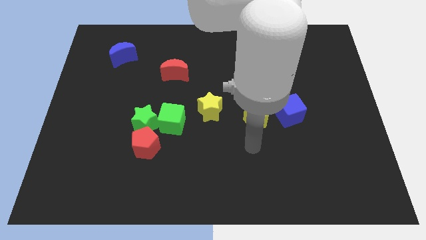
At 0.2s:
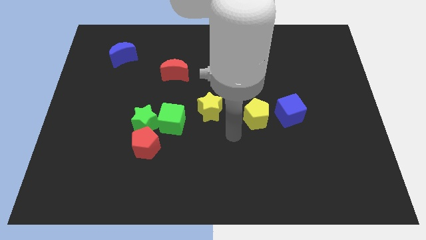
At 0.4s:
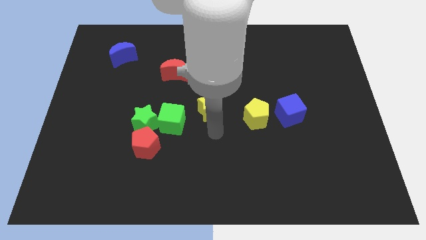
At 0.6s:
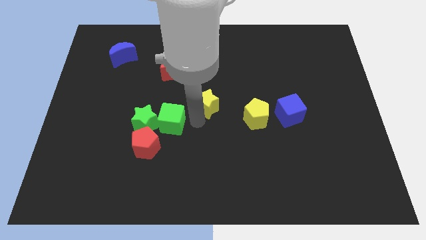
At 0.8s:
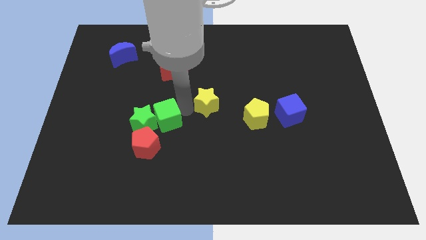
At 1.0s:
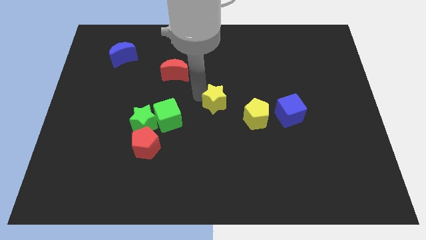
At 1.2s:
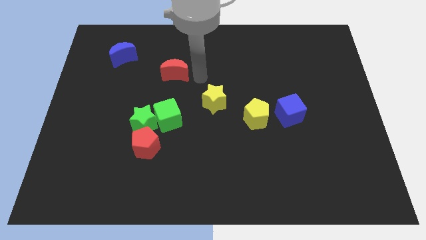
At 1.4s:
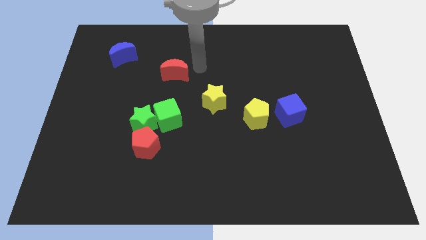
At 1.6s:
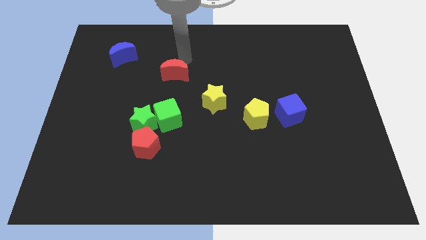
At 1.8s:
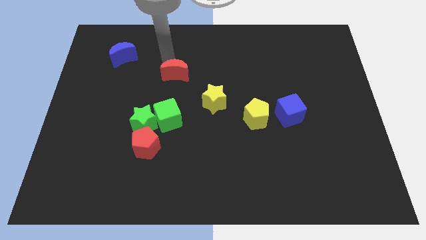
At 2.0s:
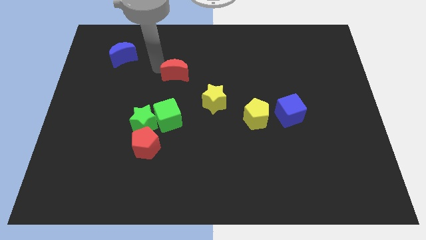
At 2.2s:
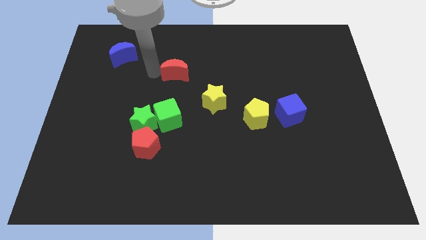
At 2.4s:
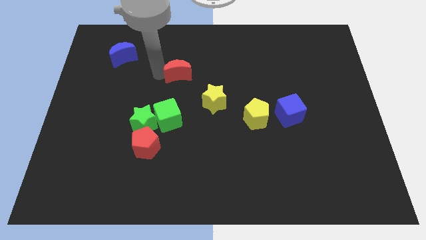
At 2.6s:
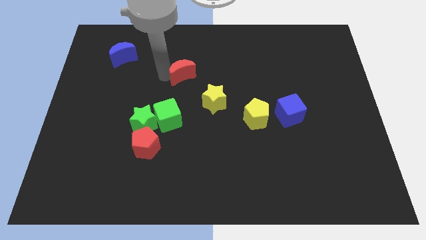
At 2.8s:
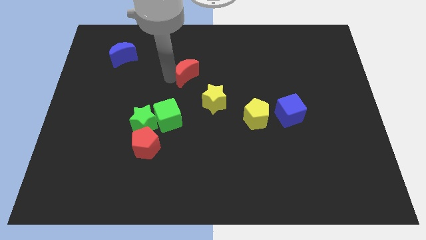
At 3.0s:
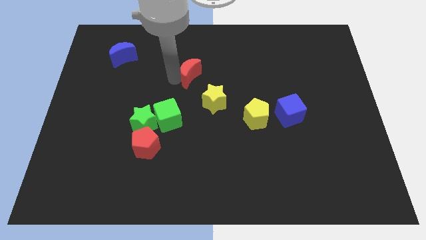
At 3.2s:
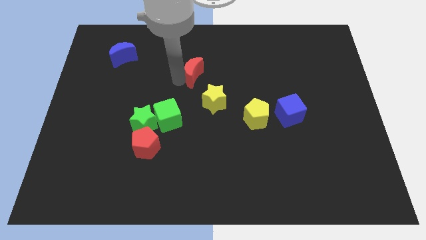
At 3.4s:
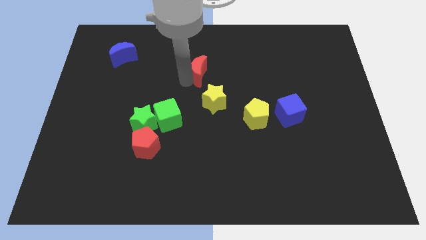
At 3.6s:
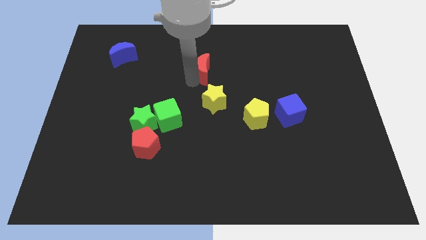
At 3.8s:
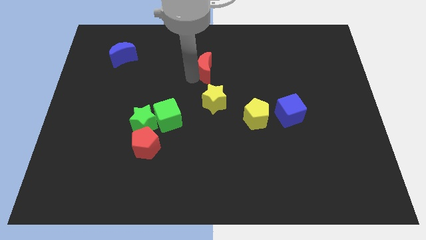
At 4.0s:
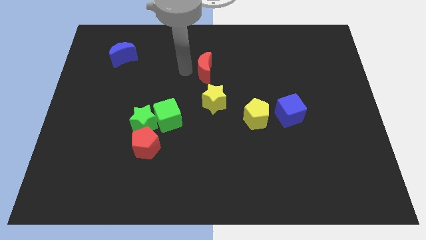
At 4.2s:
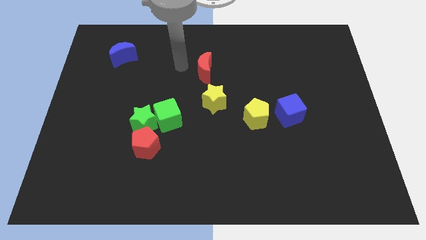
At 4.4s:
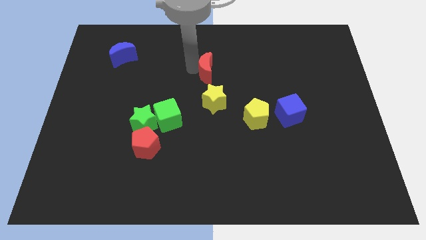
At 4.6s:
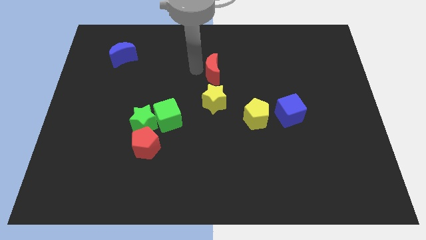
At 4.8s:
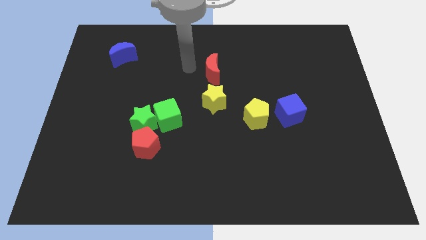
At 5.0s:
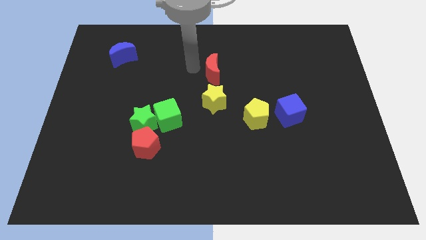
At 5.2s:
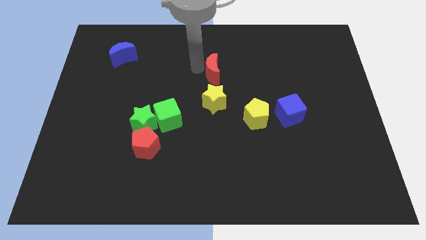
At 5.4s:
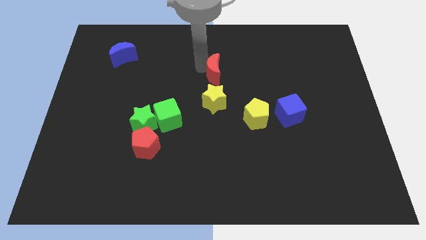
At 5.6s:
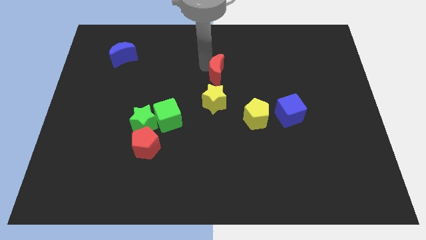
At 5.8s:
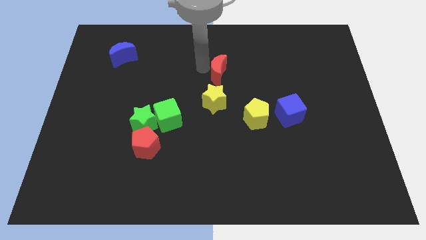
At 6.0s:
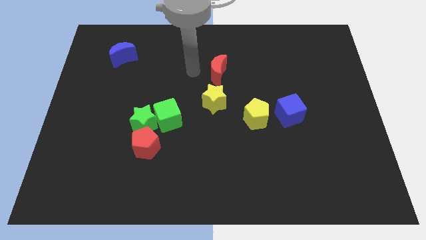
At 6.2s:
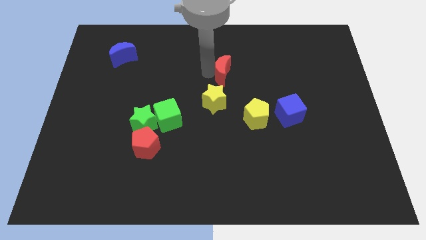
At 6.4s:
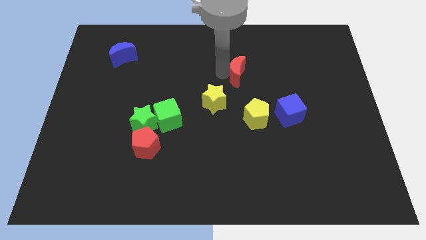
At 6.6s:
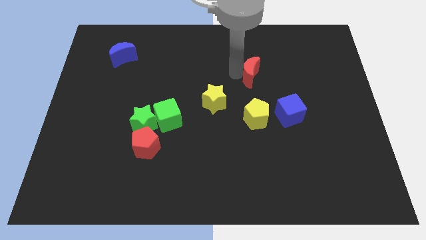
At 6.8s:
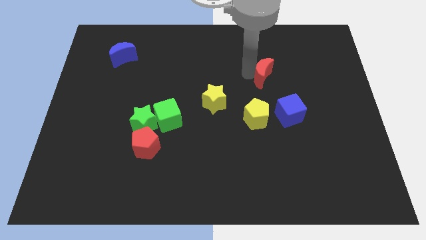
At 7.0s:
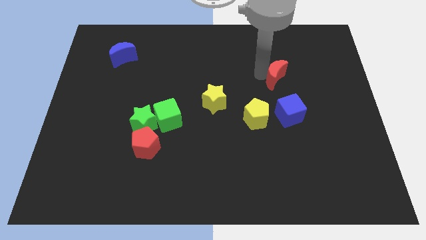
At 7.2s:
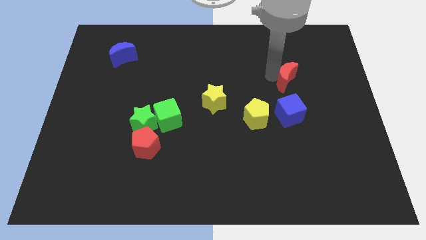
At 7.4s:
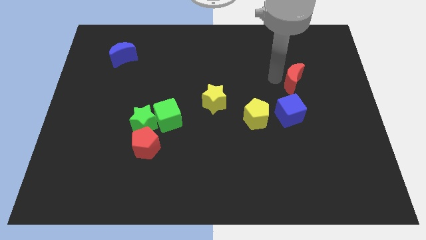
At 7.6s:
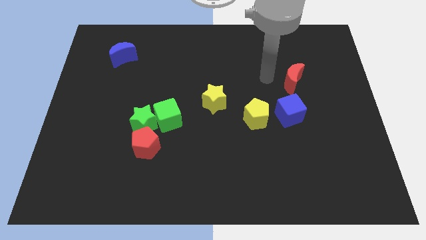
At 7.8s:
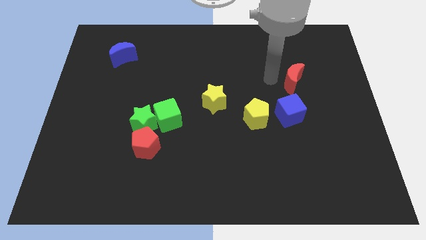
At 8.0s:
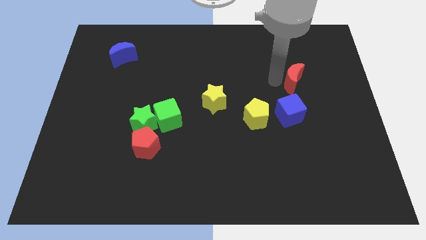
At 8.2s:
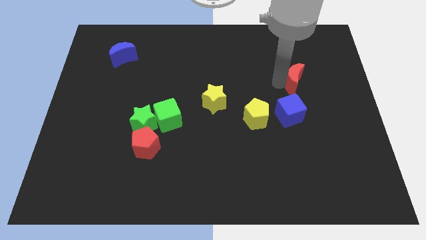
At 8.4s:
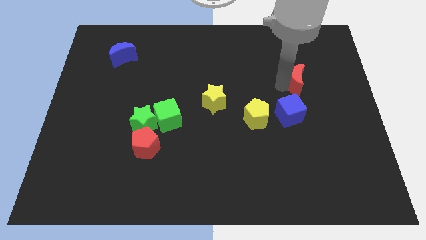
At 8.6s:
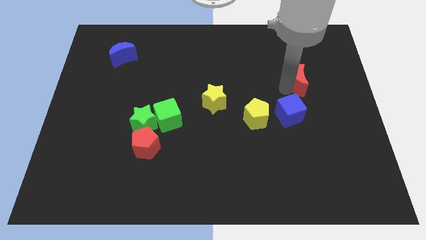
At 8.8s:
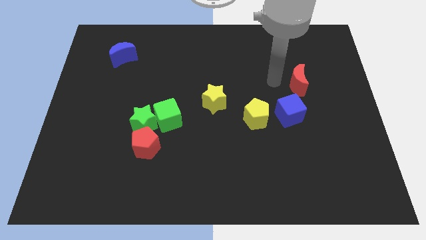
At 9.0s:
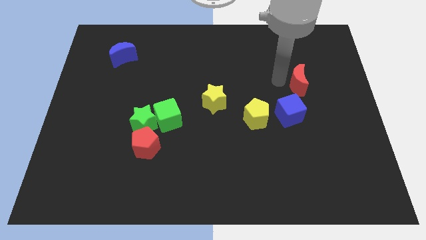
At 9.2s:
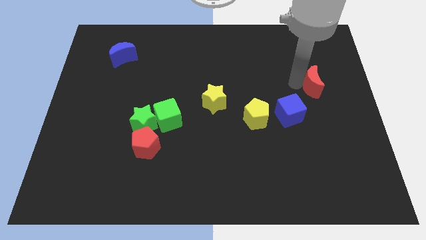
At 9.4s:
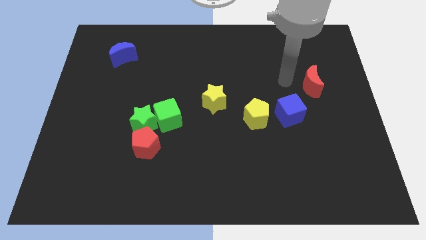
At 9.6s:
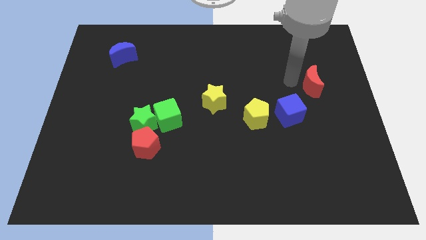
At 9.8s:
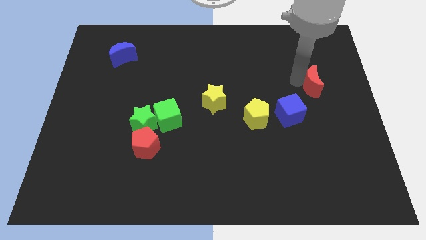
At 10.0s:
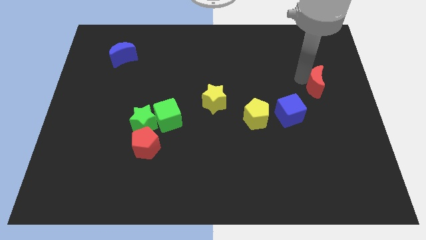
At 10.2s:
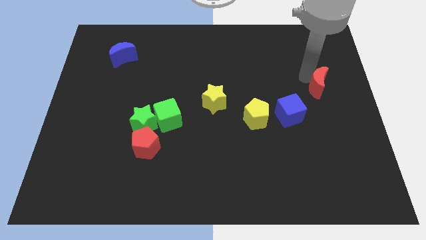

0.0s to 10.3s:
move the red moon to the right side

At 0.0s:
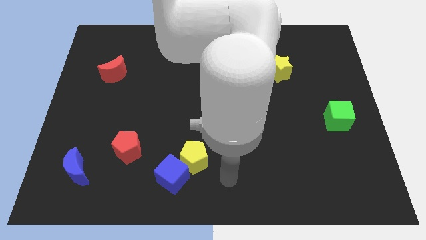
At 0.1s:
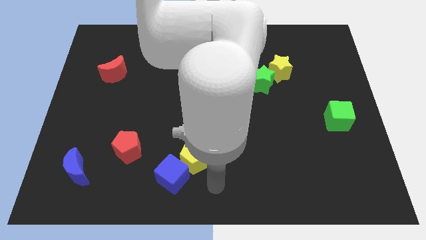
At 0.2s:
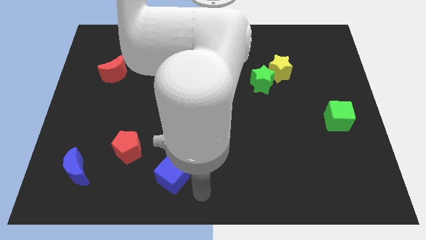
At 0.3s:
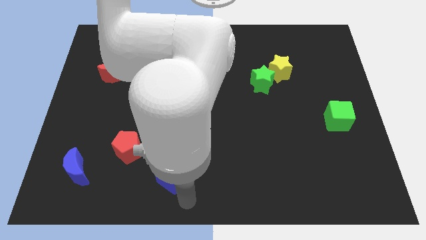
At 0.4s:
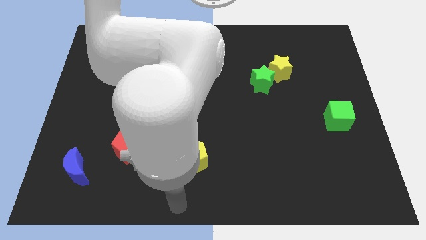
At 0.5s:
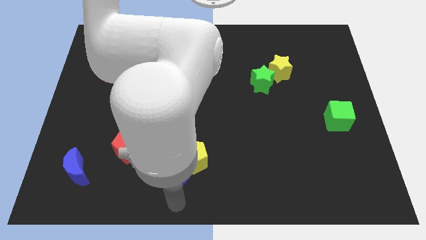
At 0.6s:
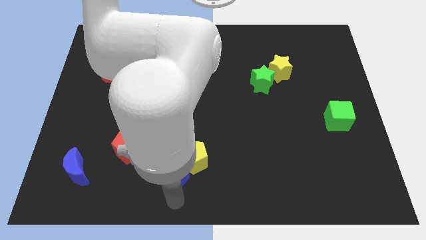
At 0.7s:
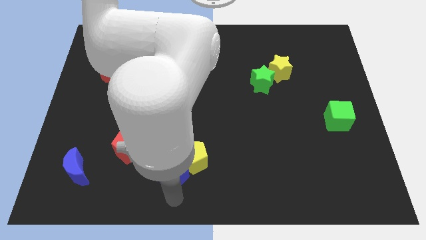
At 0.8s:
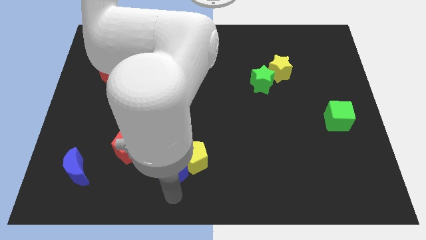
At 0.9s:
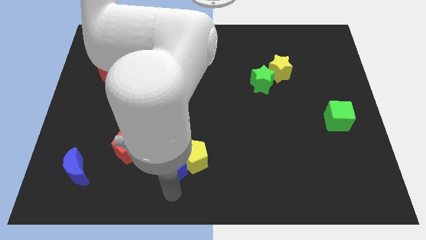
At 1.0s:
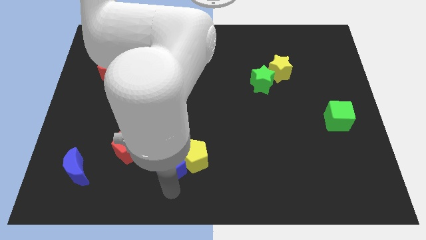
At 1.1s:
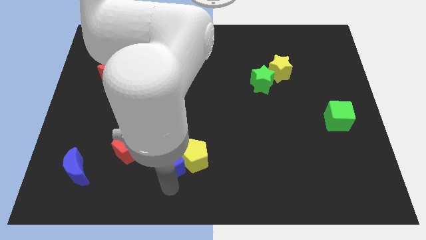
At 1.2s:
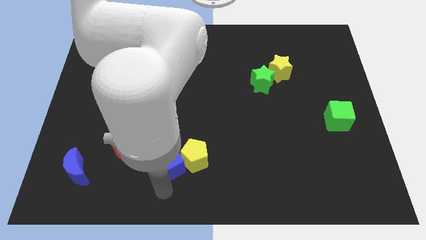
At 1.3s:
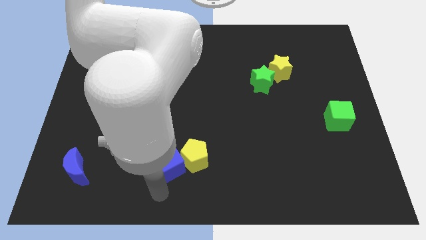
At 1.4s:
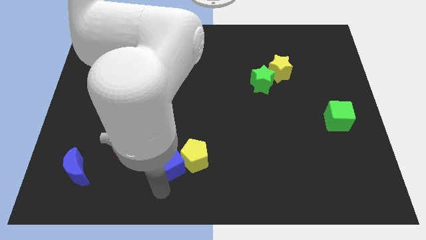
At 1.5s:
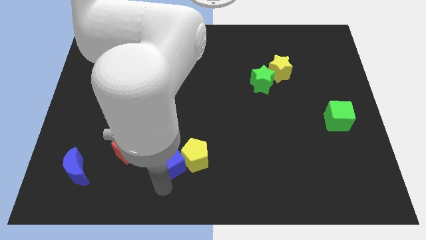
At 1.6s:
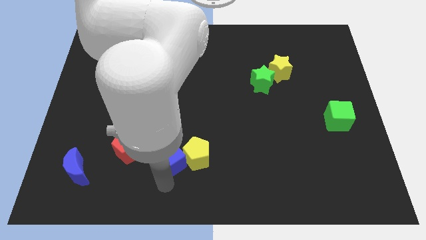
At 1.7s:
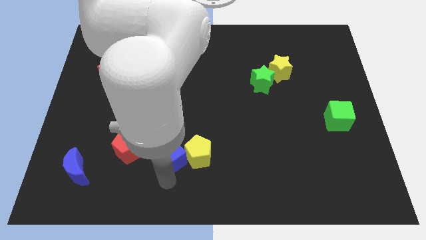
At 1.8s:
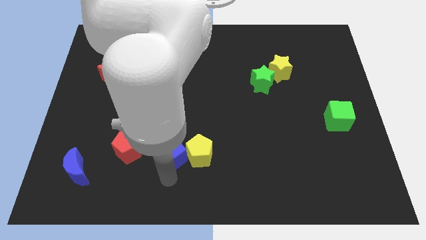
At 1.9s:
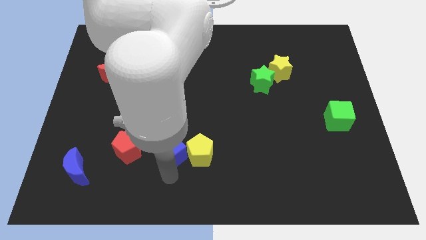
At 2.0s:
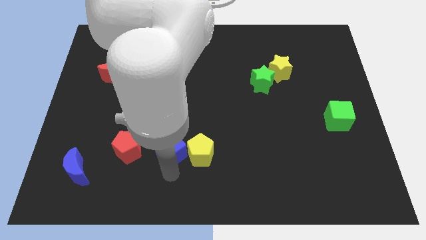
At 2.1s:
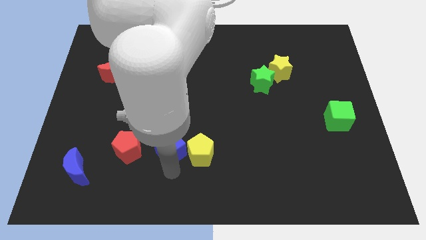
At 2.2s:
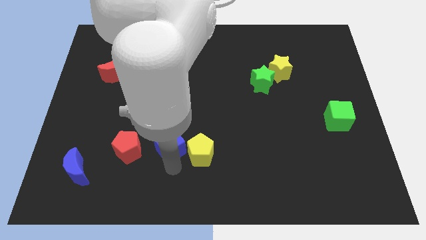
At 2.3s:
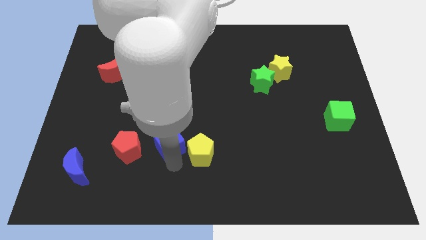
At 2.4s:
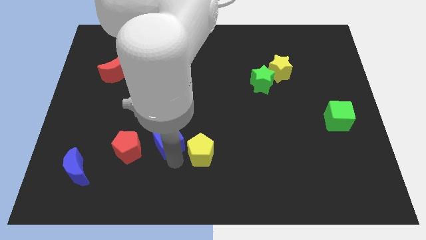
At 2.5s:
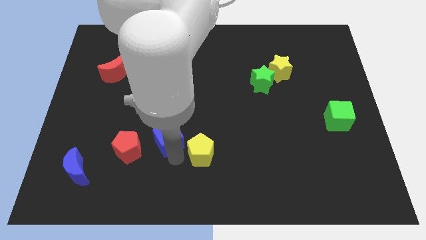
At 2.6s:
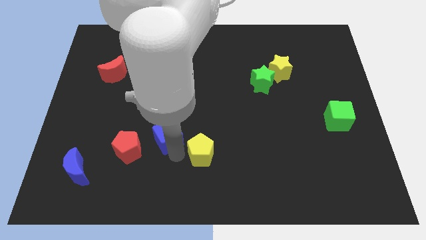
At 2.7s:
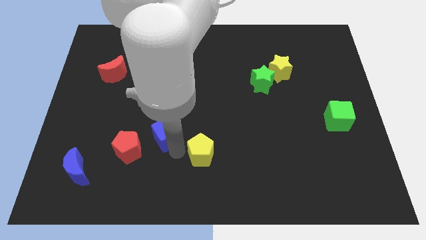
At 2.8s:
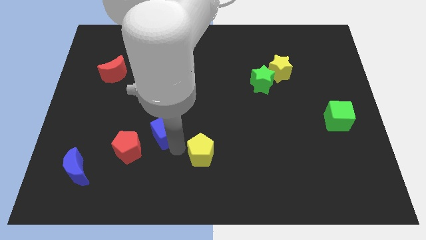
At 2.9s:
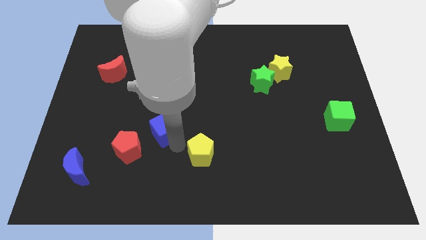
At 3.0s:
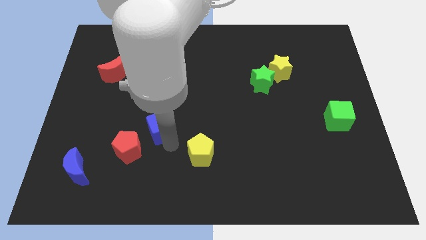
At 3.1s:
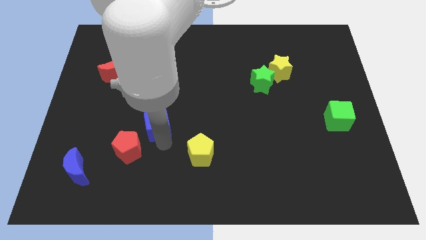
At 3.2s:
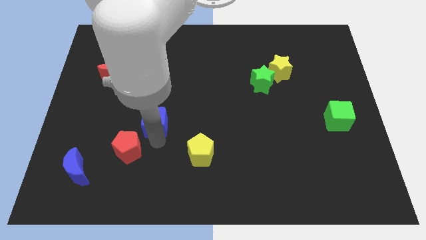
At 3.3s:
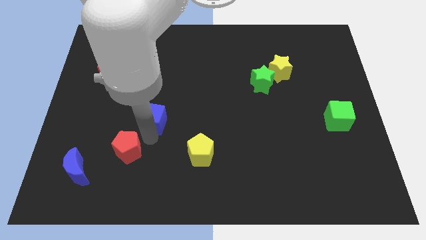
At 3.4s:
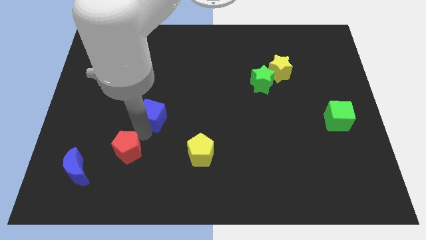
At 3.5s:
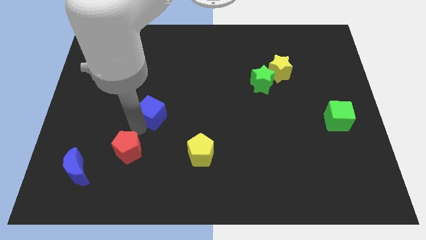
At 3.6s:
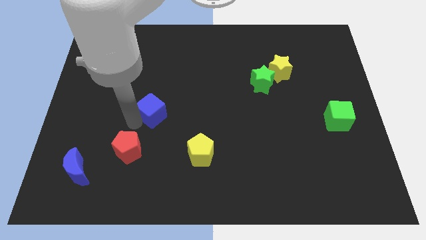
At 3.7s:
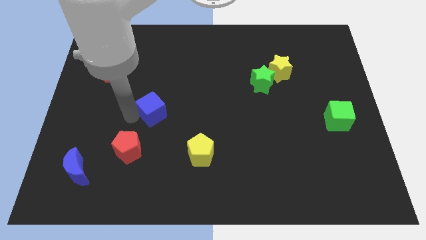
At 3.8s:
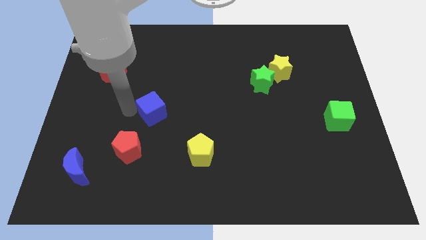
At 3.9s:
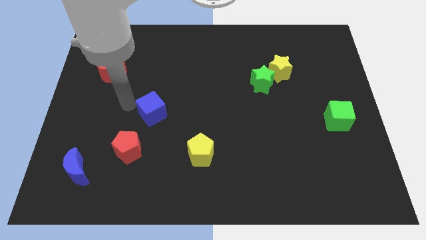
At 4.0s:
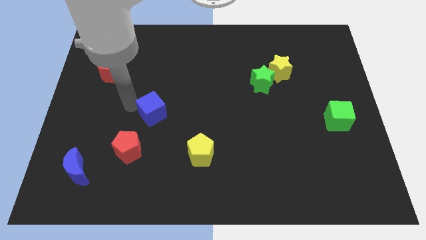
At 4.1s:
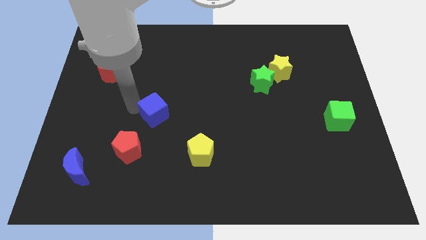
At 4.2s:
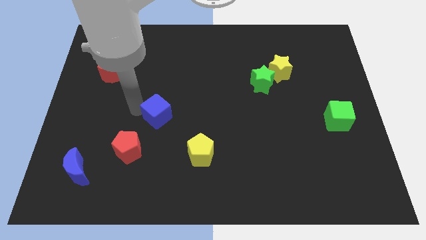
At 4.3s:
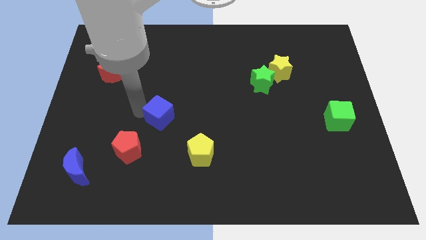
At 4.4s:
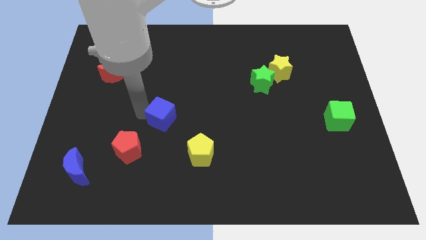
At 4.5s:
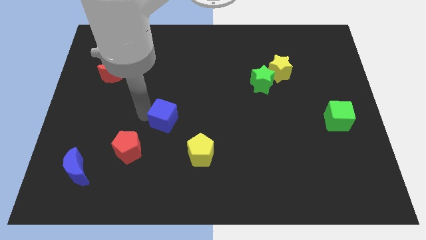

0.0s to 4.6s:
put the blue cube to the middle
